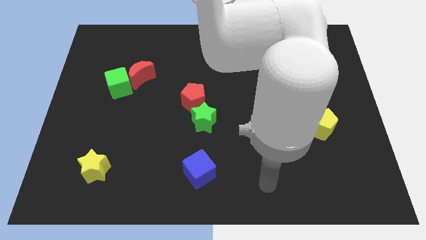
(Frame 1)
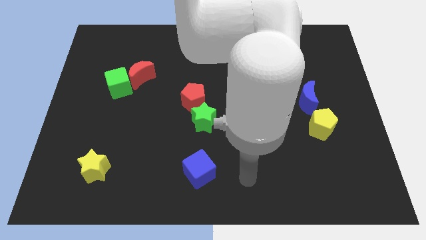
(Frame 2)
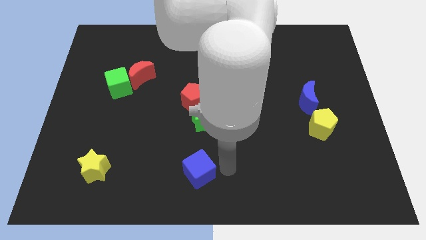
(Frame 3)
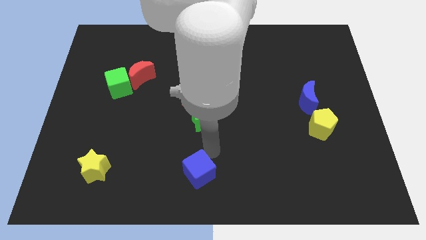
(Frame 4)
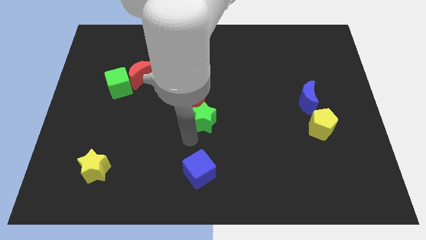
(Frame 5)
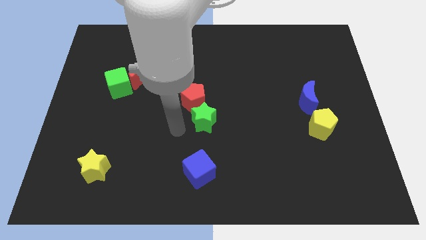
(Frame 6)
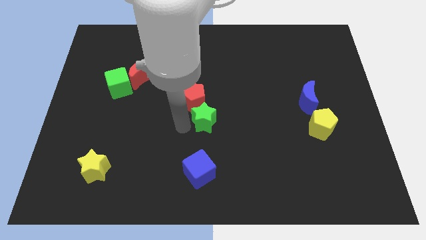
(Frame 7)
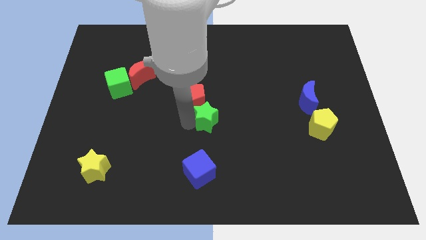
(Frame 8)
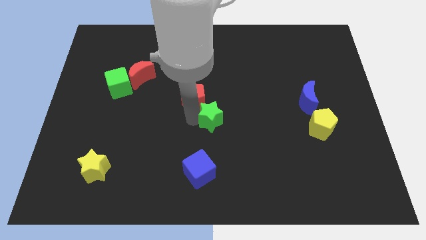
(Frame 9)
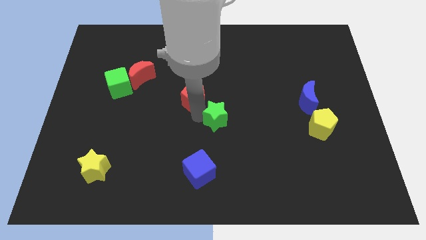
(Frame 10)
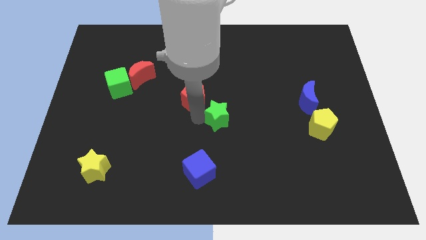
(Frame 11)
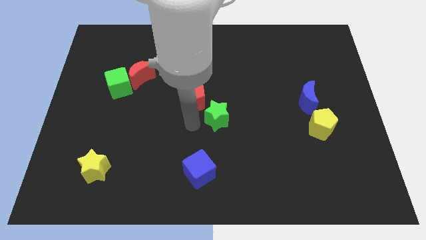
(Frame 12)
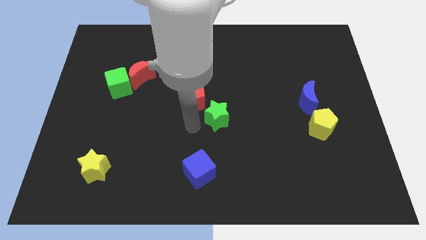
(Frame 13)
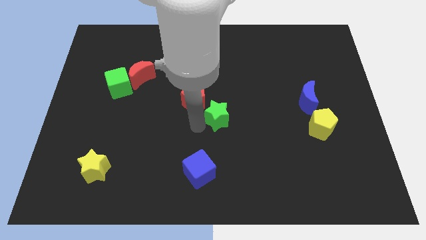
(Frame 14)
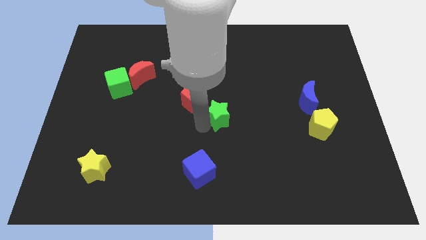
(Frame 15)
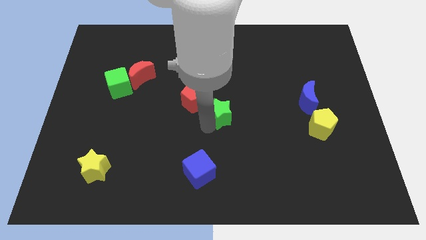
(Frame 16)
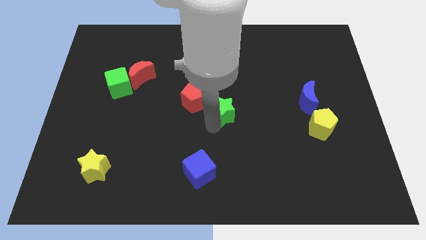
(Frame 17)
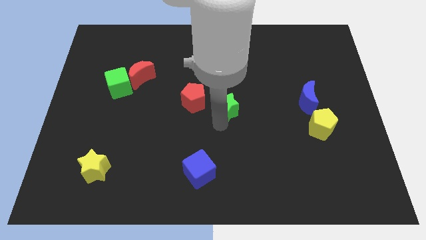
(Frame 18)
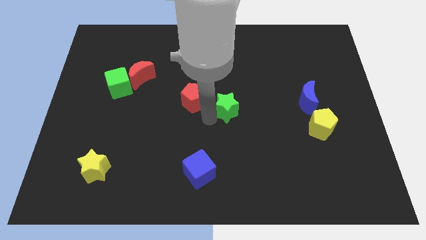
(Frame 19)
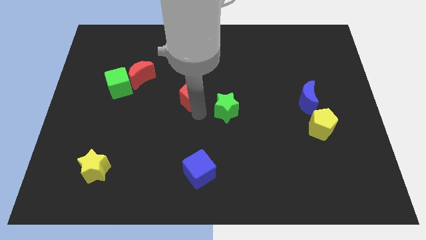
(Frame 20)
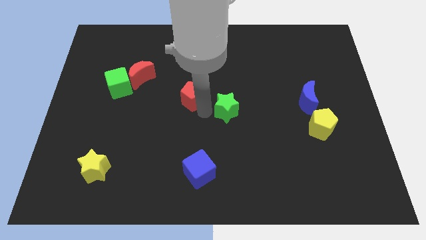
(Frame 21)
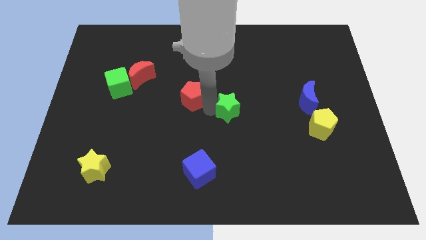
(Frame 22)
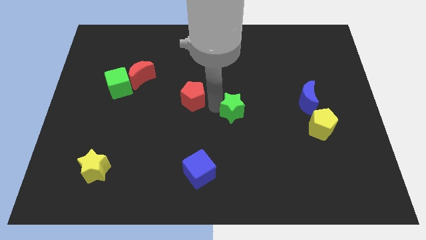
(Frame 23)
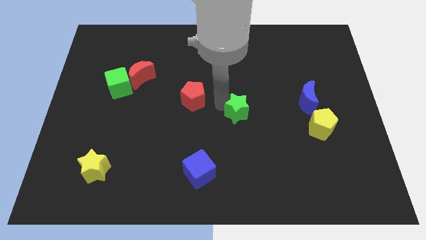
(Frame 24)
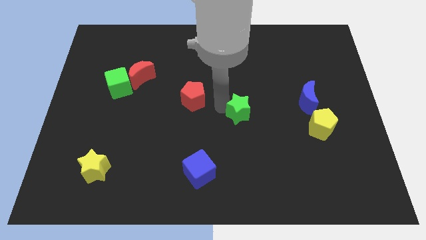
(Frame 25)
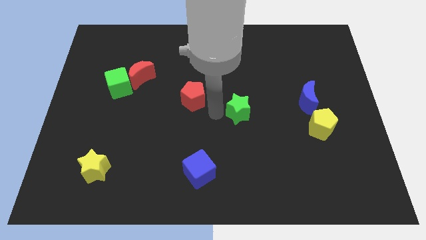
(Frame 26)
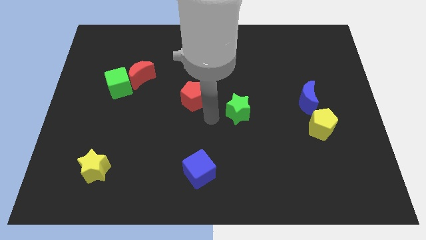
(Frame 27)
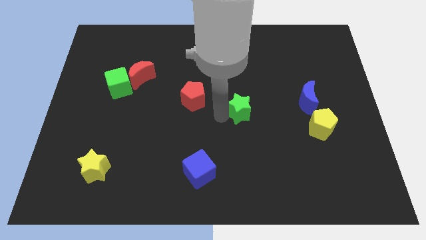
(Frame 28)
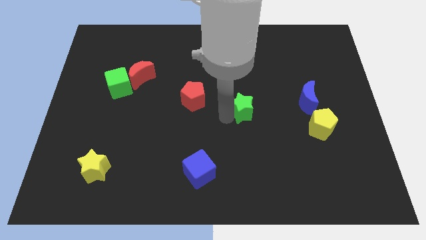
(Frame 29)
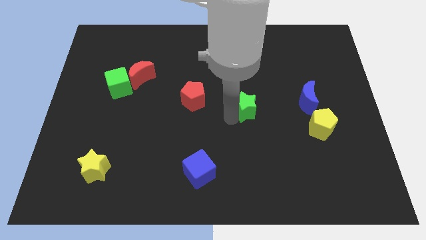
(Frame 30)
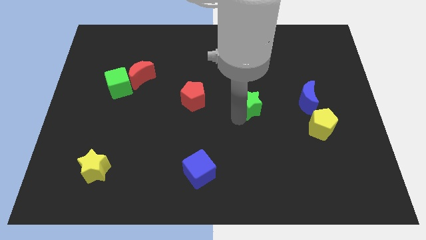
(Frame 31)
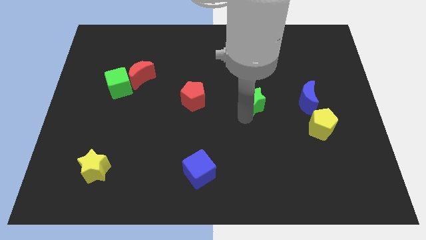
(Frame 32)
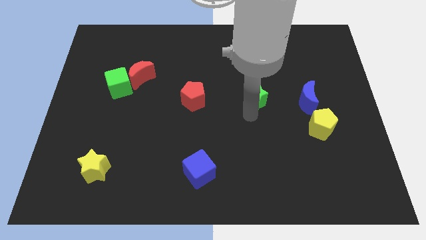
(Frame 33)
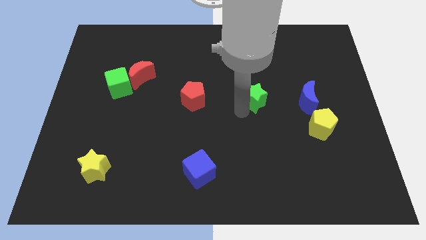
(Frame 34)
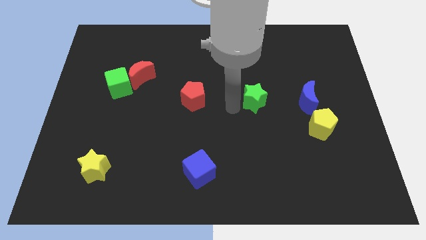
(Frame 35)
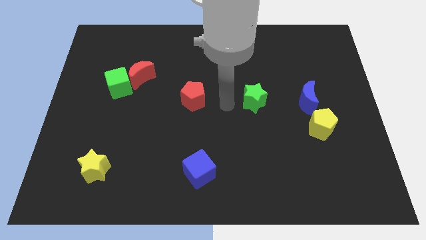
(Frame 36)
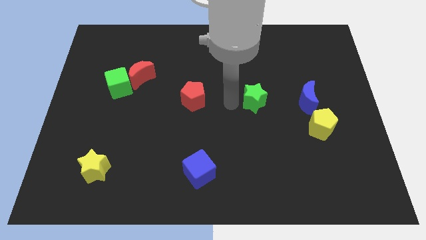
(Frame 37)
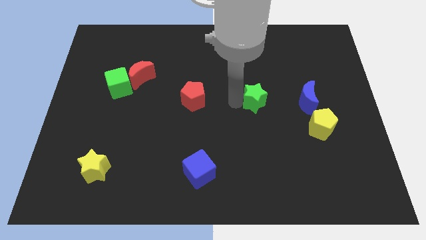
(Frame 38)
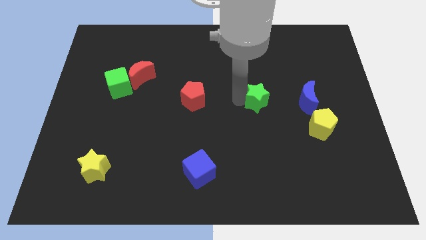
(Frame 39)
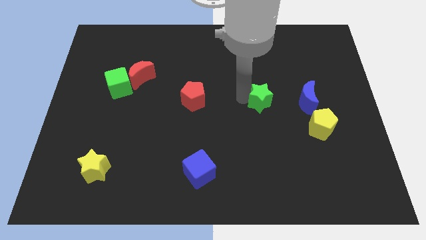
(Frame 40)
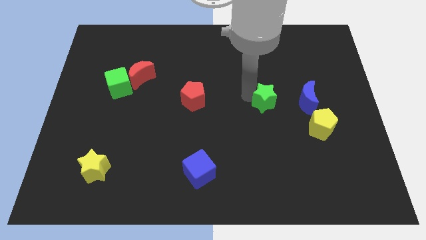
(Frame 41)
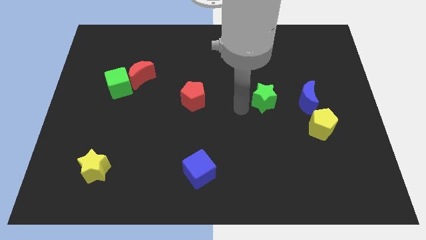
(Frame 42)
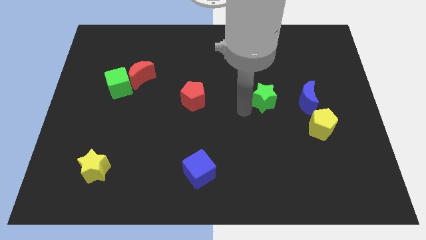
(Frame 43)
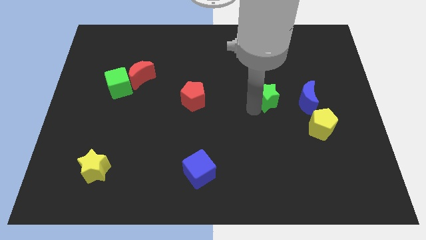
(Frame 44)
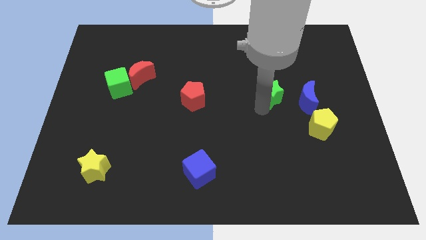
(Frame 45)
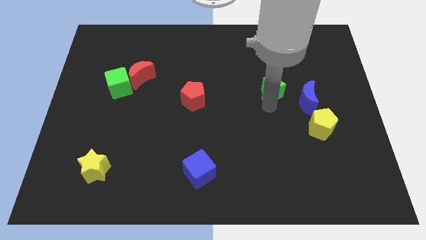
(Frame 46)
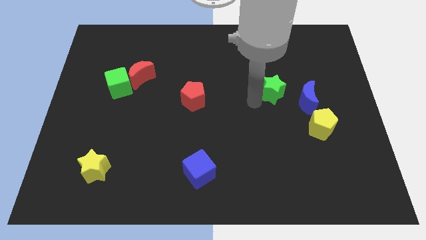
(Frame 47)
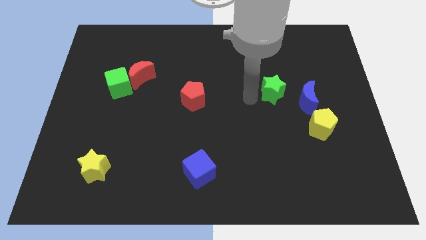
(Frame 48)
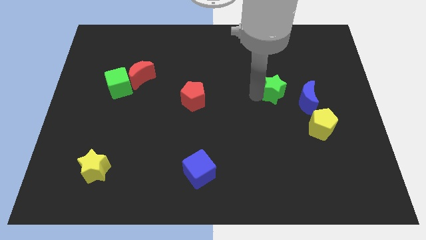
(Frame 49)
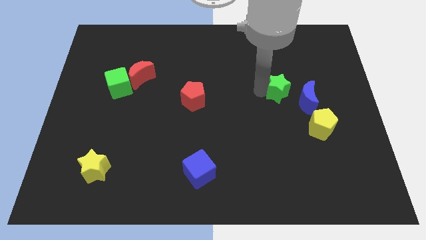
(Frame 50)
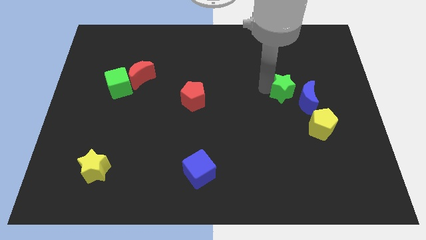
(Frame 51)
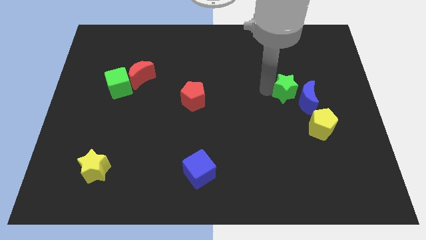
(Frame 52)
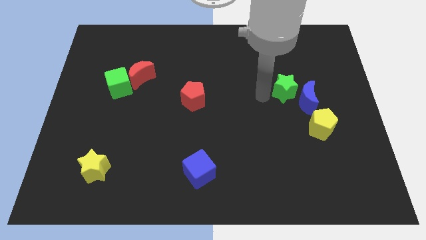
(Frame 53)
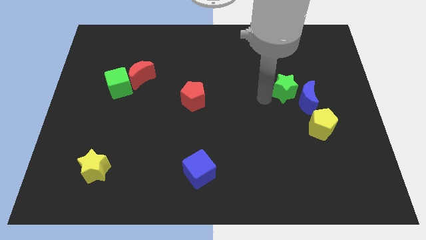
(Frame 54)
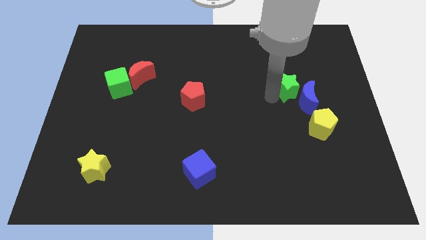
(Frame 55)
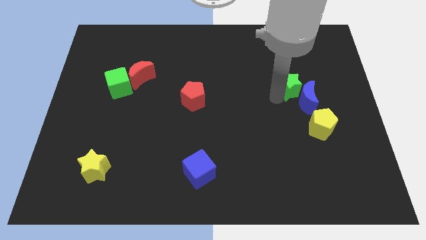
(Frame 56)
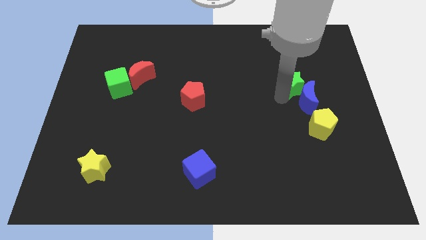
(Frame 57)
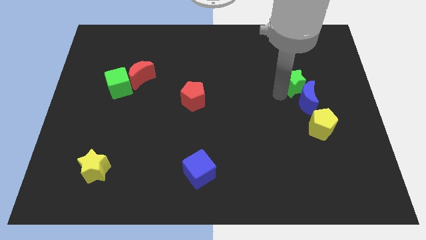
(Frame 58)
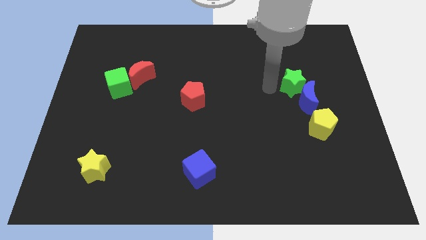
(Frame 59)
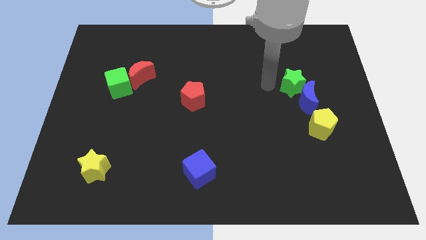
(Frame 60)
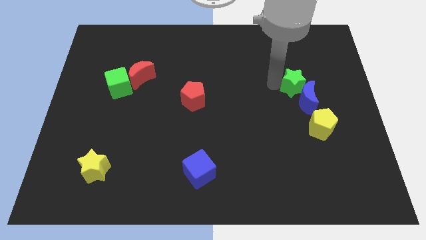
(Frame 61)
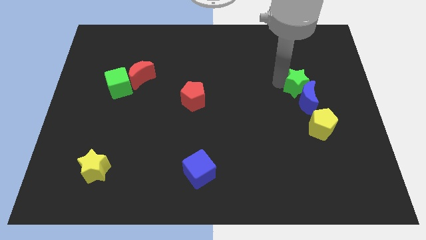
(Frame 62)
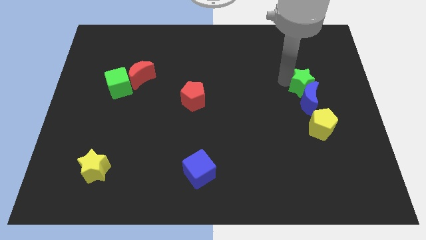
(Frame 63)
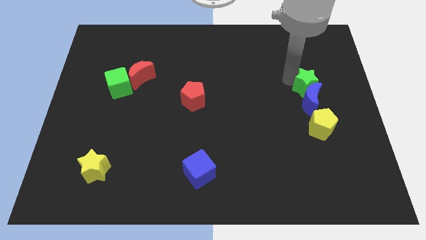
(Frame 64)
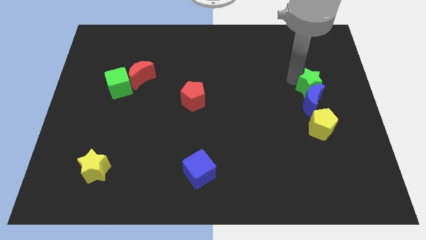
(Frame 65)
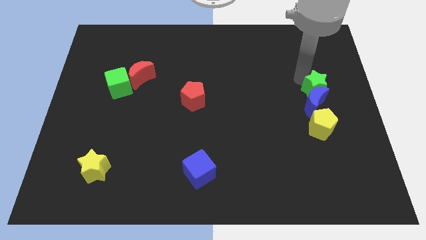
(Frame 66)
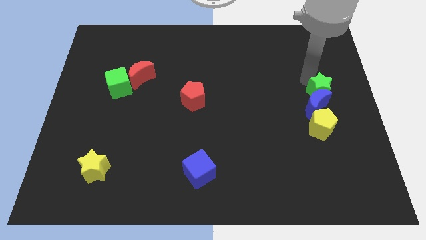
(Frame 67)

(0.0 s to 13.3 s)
move the green star to the center right
